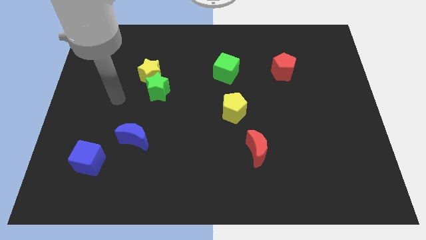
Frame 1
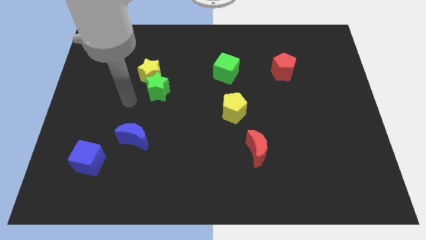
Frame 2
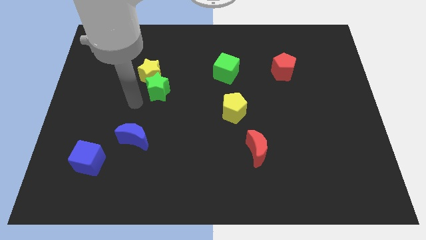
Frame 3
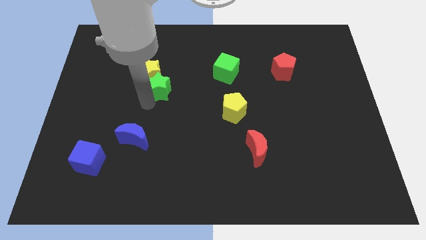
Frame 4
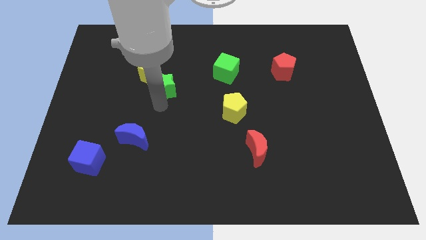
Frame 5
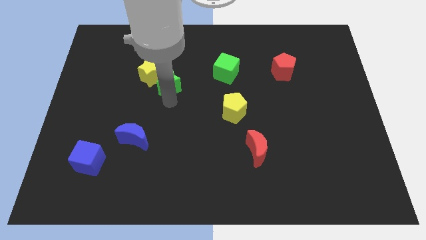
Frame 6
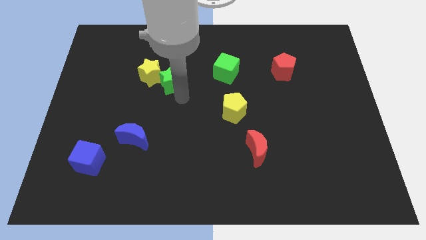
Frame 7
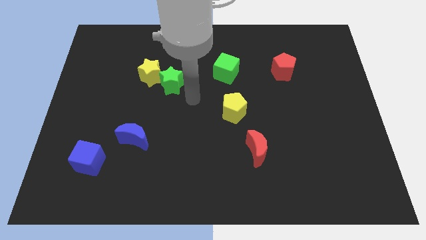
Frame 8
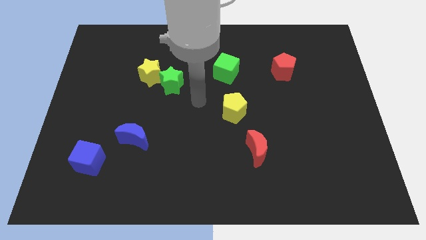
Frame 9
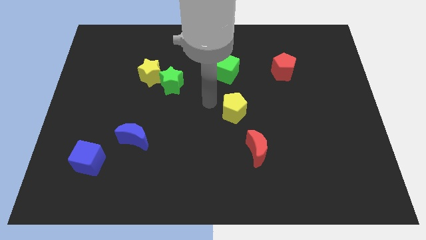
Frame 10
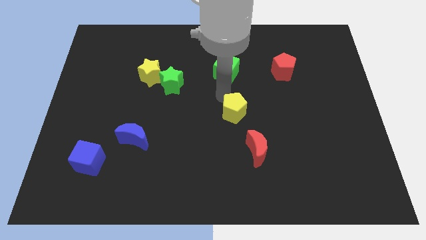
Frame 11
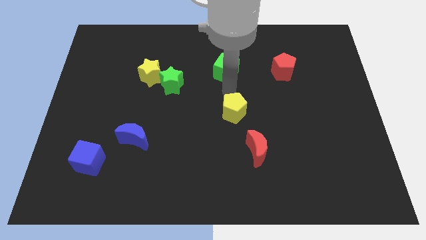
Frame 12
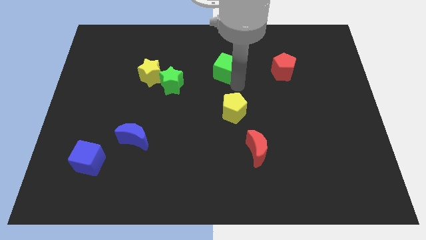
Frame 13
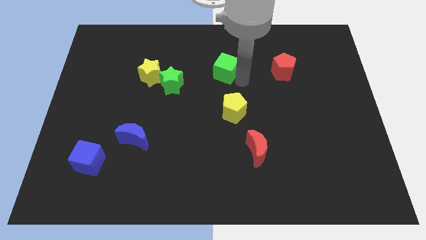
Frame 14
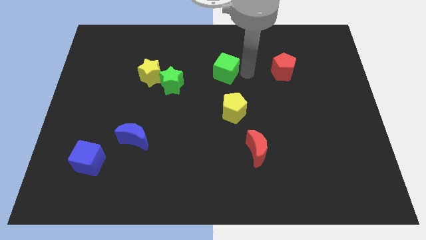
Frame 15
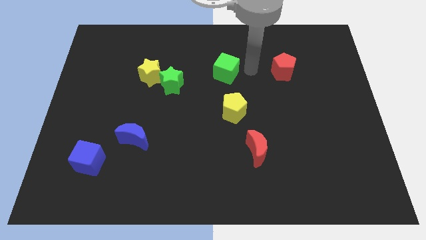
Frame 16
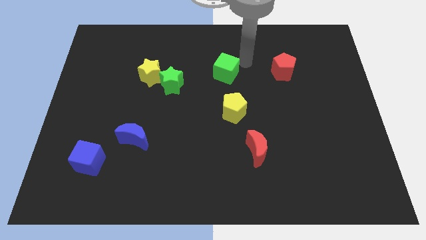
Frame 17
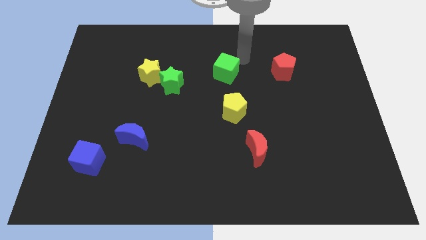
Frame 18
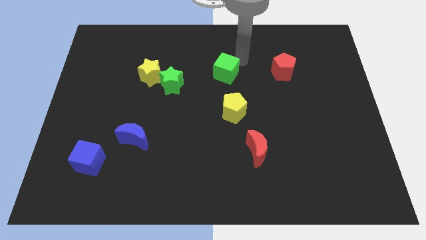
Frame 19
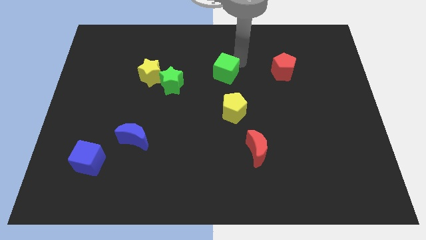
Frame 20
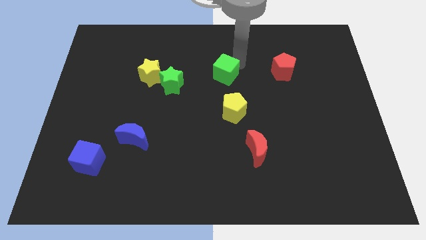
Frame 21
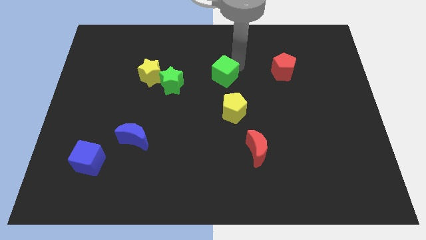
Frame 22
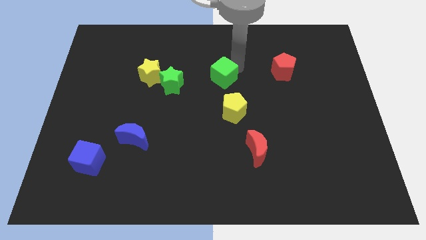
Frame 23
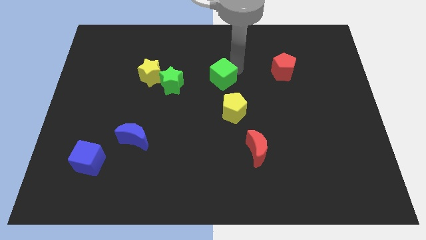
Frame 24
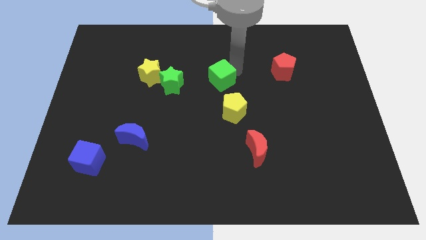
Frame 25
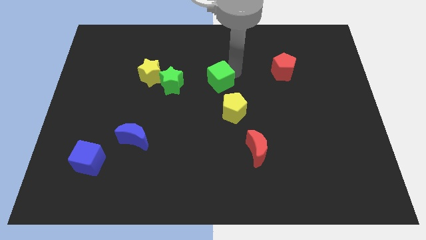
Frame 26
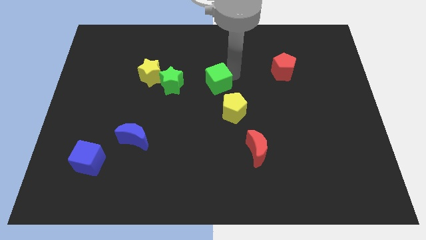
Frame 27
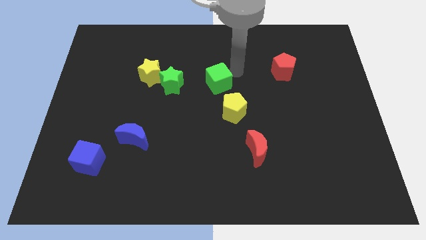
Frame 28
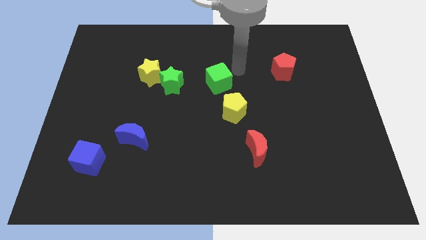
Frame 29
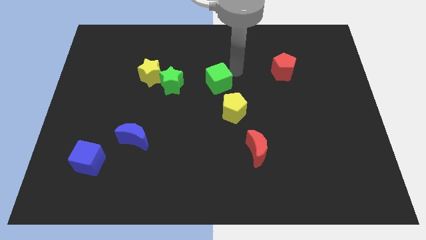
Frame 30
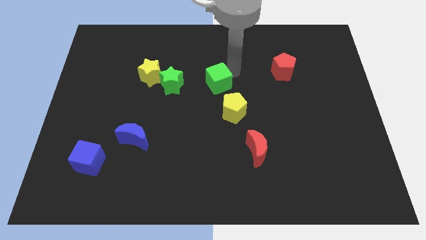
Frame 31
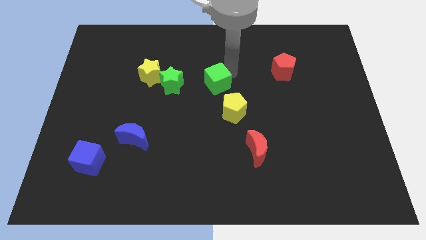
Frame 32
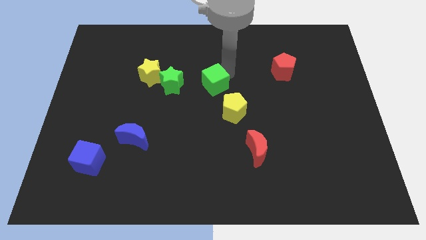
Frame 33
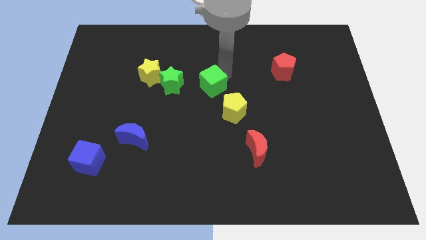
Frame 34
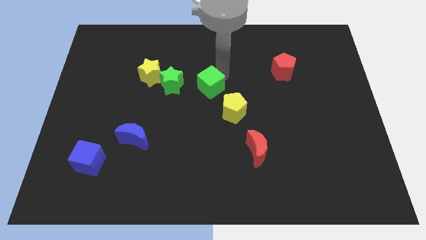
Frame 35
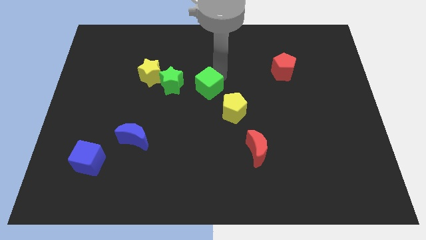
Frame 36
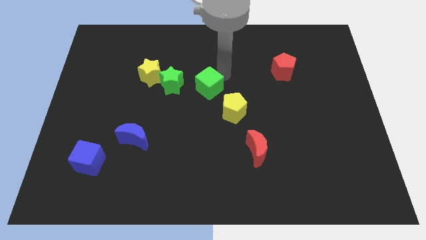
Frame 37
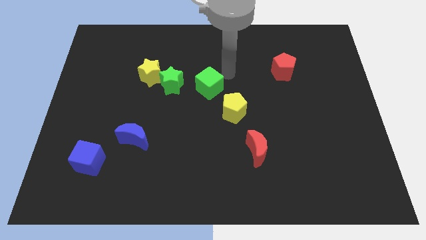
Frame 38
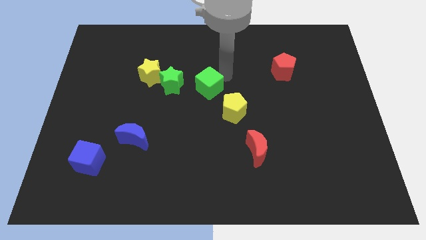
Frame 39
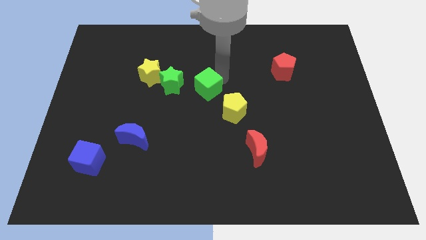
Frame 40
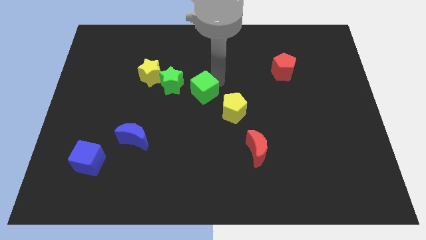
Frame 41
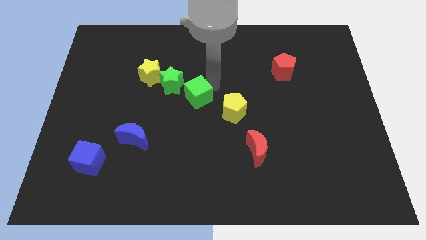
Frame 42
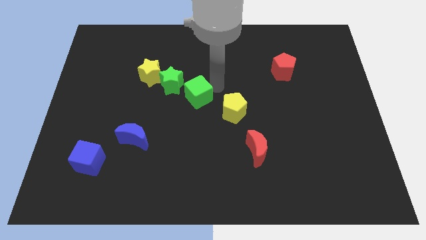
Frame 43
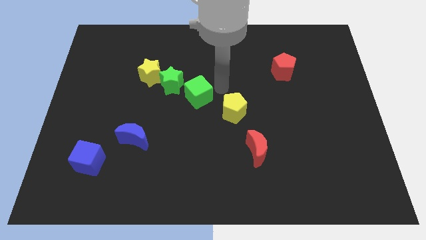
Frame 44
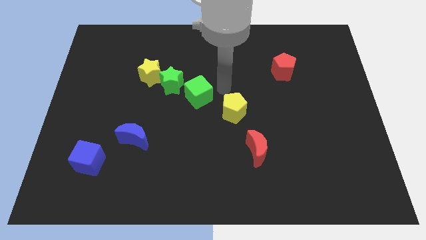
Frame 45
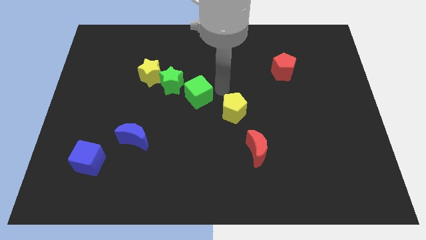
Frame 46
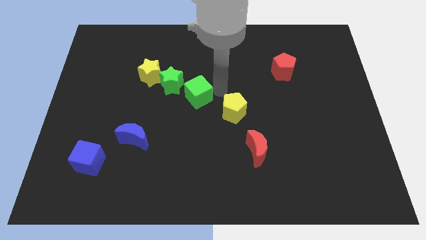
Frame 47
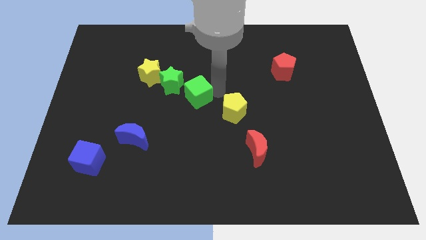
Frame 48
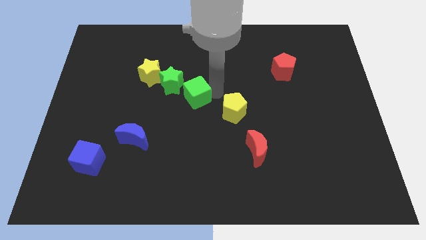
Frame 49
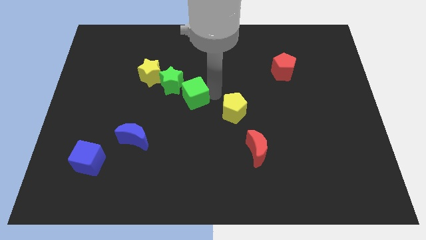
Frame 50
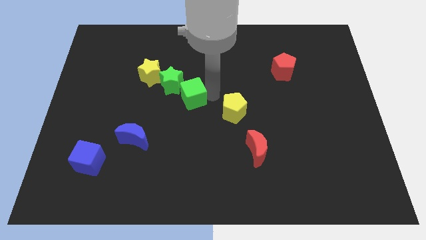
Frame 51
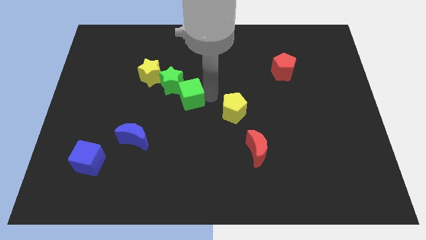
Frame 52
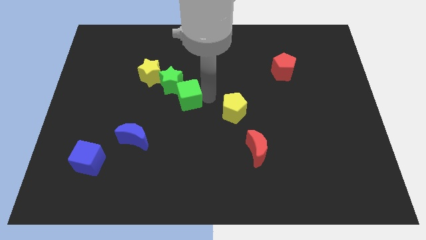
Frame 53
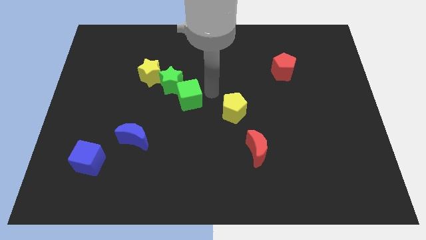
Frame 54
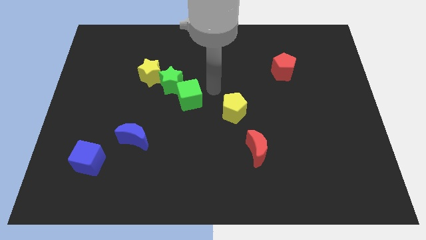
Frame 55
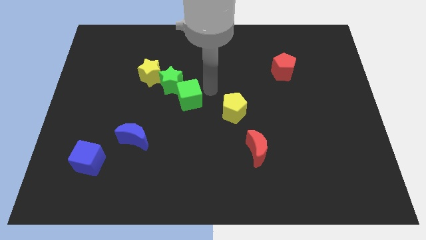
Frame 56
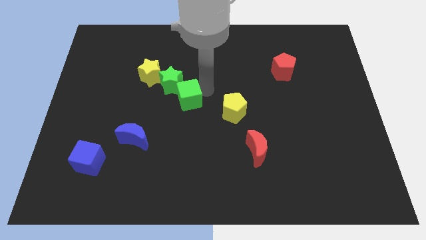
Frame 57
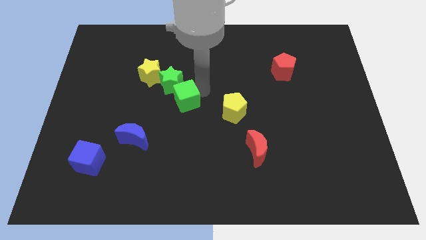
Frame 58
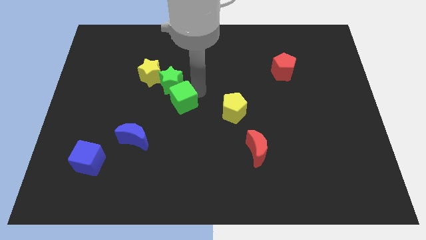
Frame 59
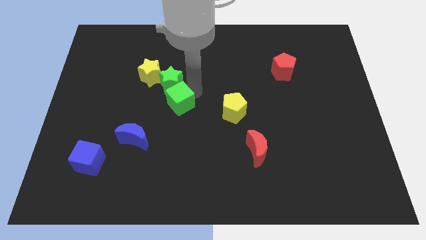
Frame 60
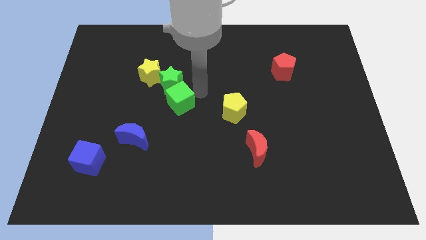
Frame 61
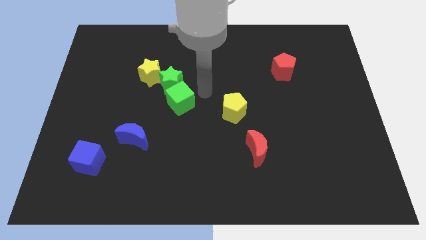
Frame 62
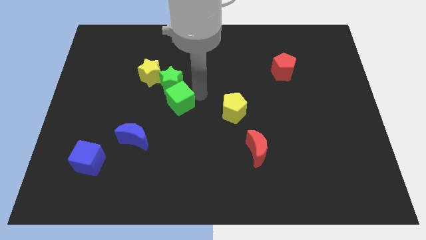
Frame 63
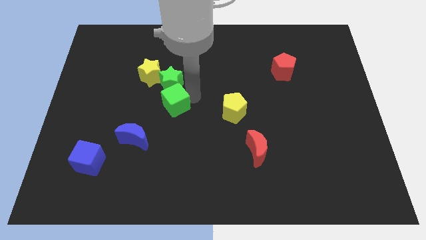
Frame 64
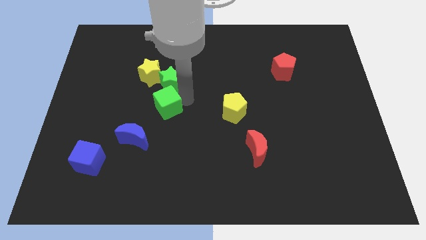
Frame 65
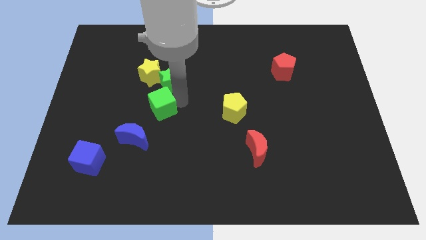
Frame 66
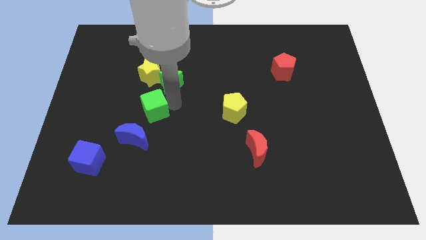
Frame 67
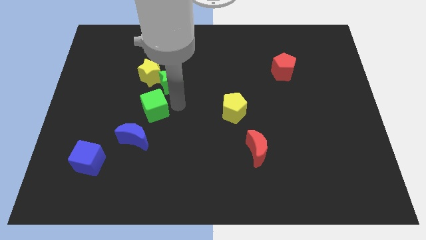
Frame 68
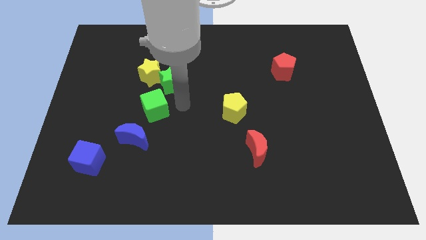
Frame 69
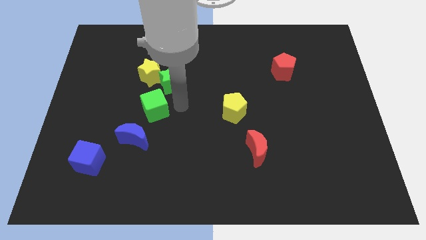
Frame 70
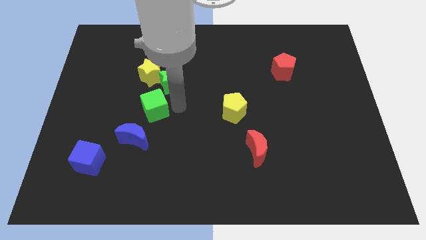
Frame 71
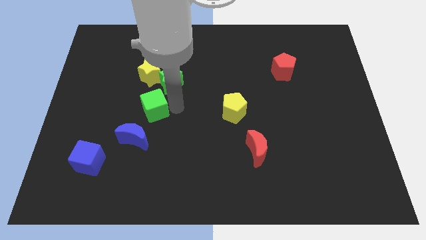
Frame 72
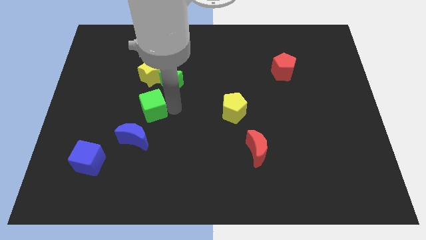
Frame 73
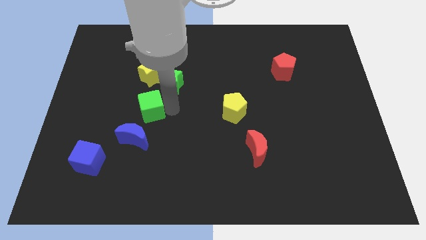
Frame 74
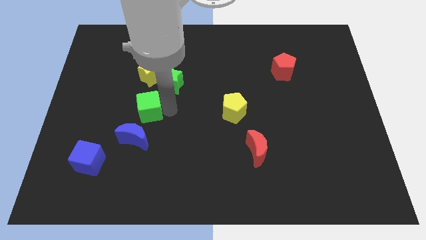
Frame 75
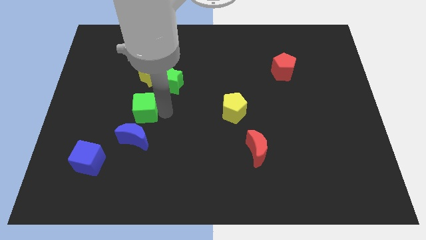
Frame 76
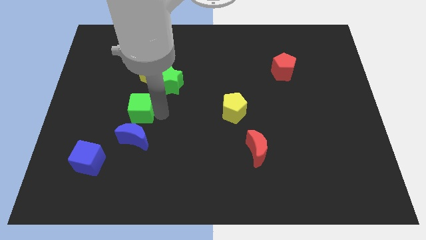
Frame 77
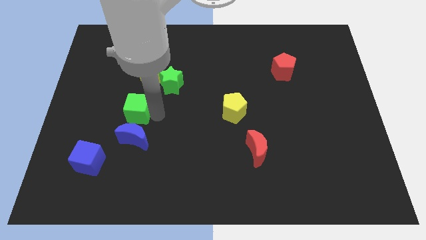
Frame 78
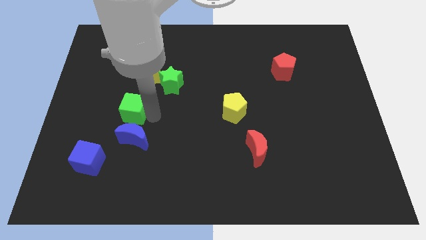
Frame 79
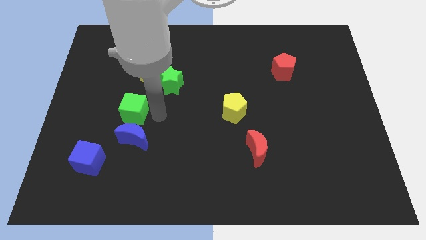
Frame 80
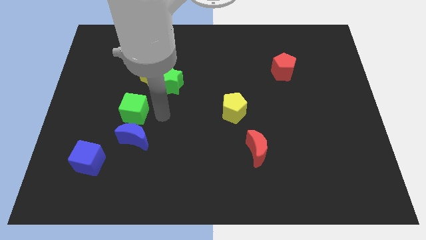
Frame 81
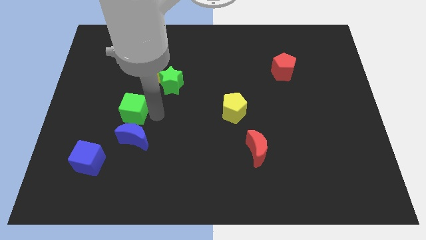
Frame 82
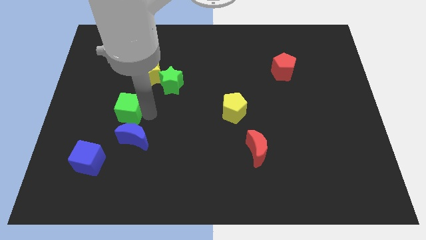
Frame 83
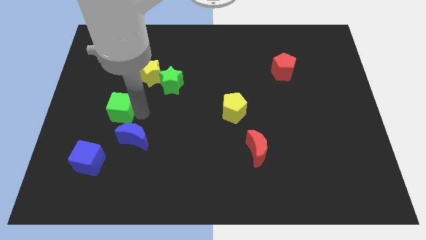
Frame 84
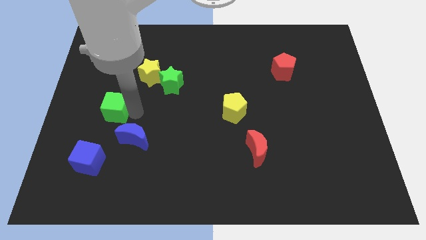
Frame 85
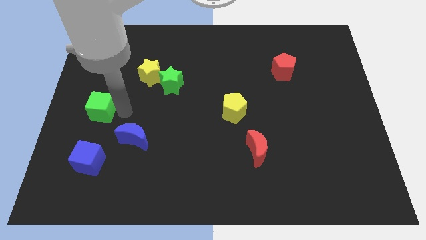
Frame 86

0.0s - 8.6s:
push the green cube to the center left
